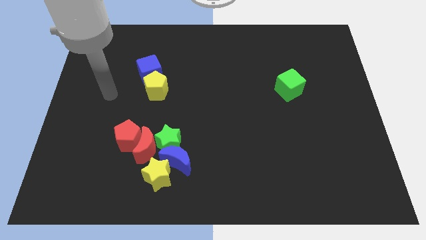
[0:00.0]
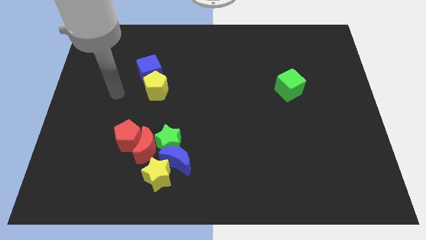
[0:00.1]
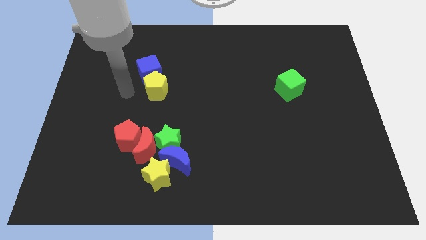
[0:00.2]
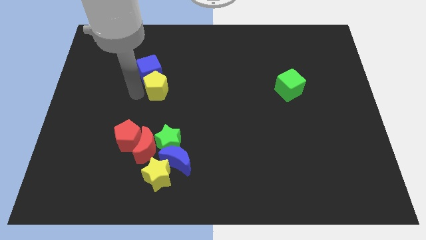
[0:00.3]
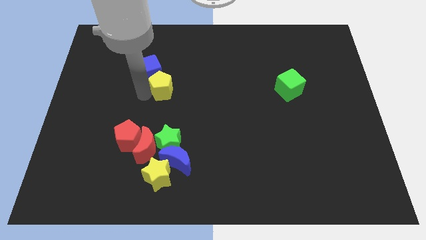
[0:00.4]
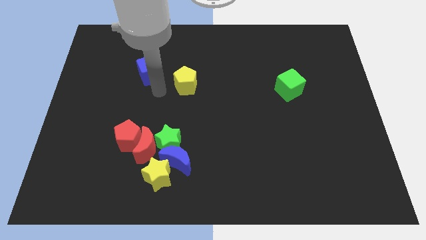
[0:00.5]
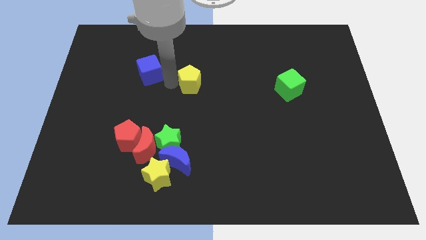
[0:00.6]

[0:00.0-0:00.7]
pull the blue cube apart from the yellow pentagon

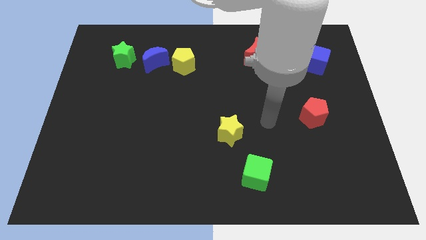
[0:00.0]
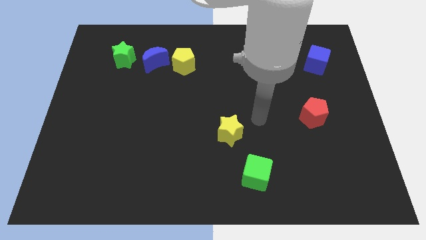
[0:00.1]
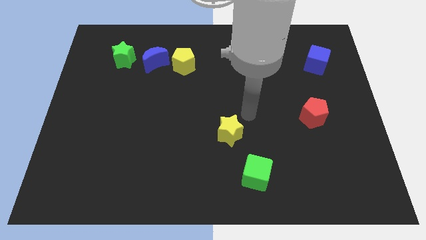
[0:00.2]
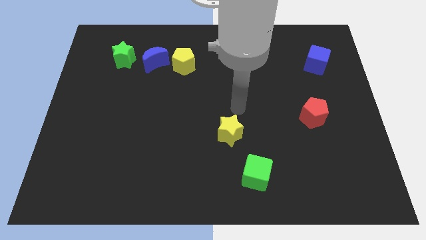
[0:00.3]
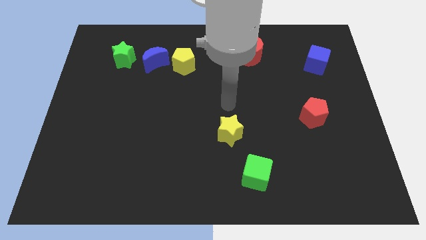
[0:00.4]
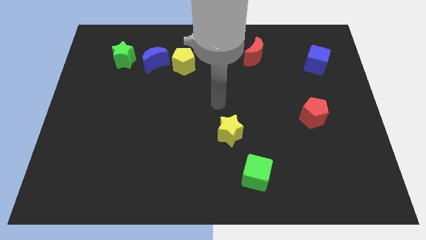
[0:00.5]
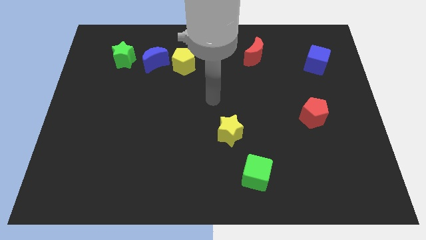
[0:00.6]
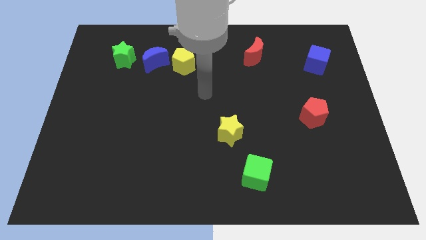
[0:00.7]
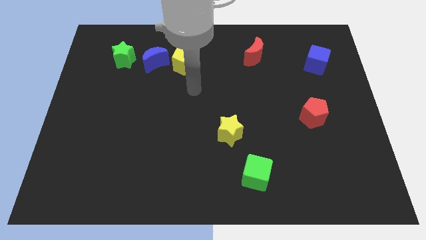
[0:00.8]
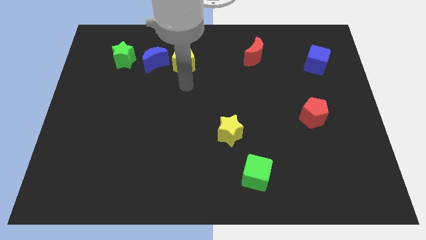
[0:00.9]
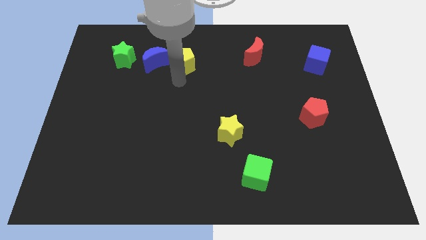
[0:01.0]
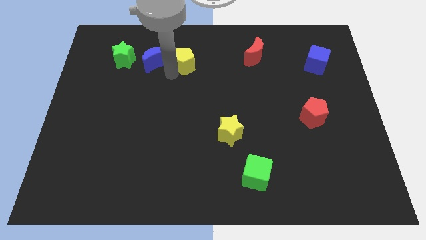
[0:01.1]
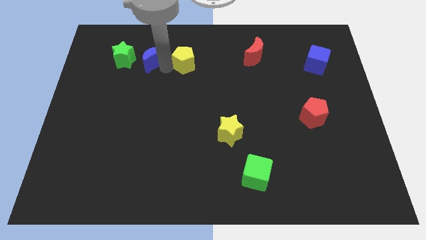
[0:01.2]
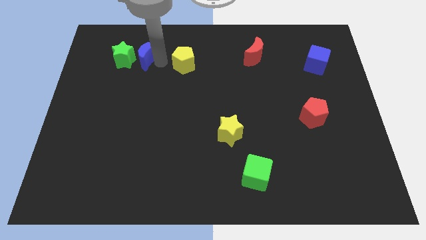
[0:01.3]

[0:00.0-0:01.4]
pull the yellow pentagon apart from the blue moon

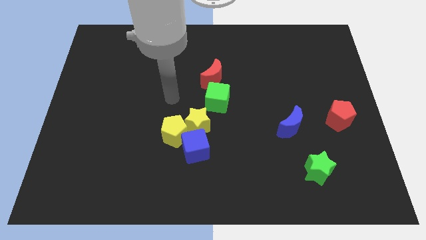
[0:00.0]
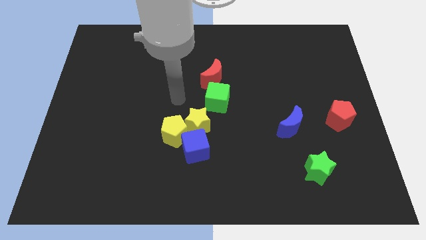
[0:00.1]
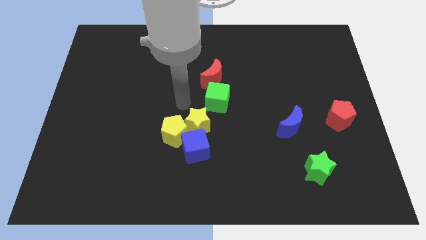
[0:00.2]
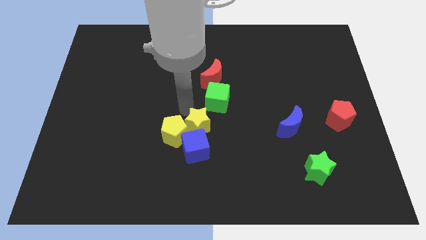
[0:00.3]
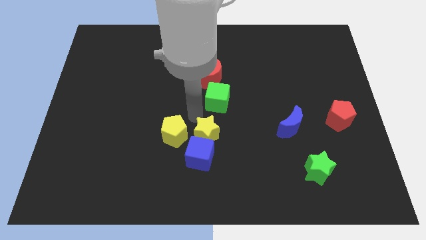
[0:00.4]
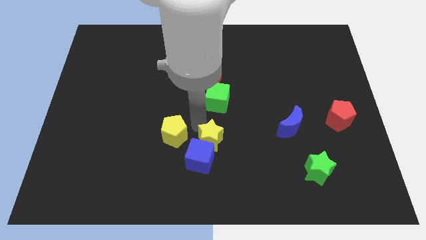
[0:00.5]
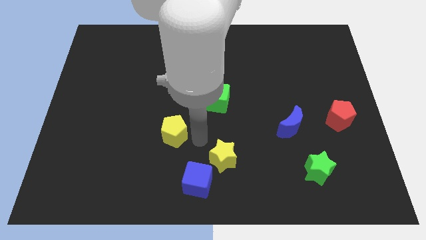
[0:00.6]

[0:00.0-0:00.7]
pull the yellow pentagon apart from the yellow star and blue cube

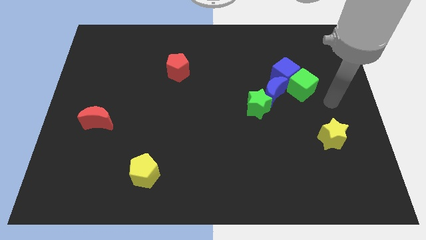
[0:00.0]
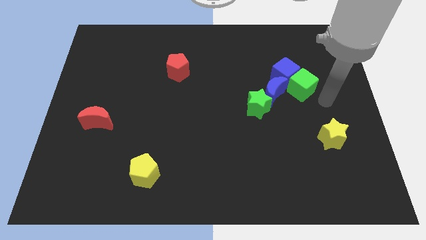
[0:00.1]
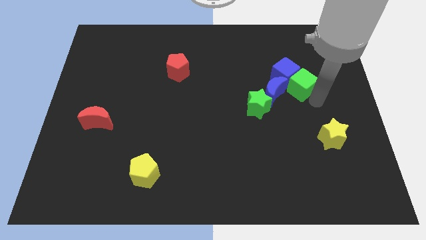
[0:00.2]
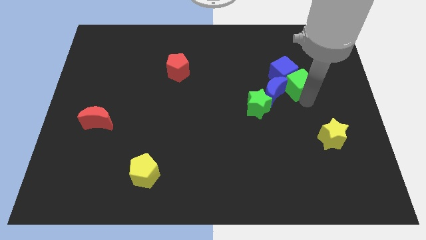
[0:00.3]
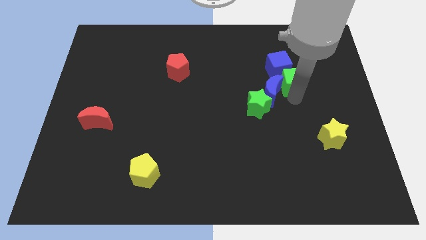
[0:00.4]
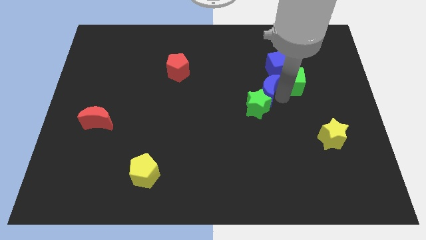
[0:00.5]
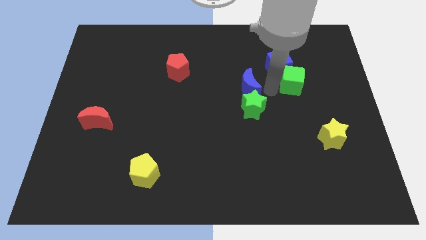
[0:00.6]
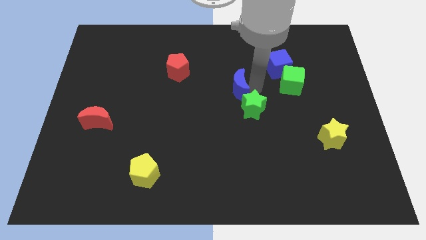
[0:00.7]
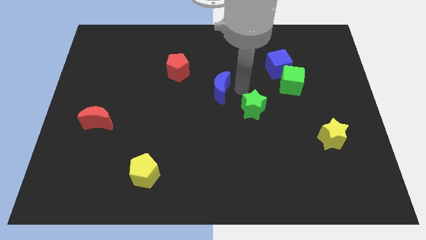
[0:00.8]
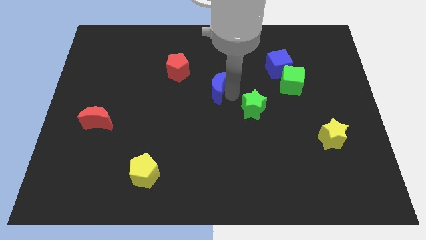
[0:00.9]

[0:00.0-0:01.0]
separate the green star from the blue moon

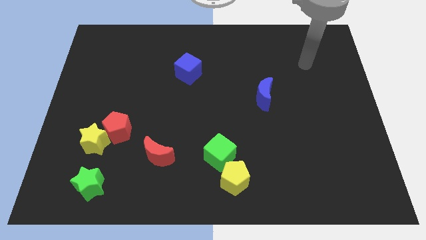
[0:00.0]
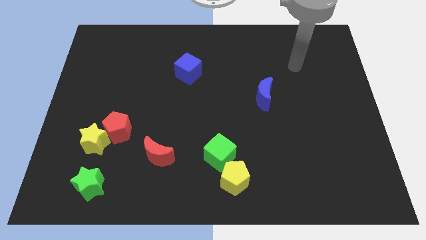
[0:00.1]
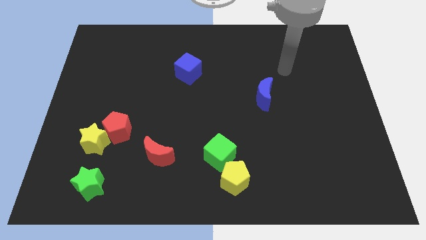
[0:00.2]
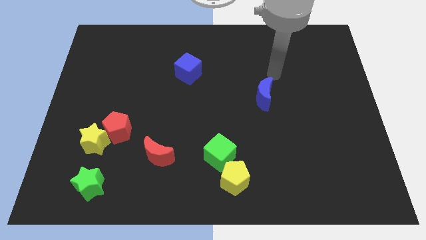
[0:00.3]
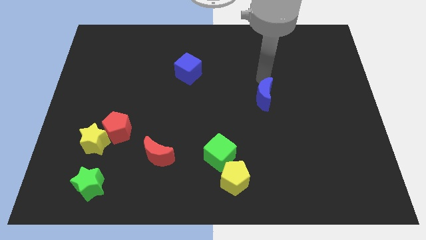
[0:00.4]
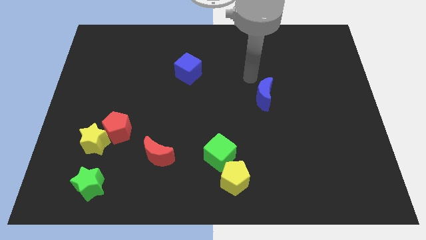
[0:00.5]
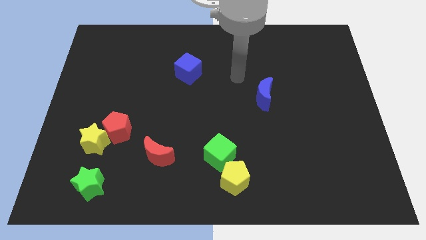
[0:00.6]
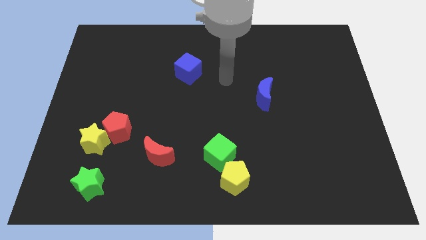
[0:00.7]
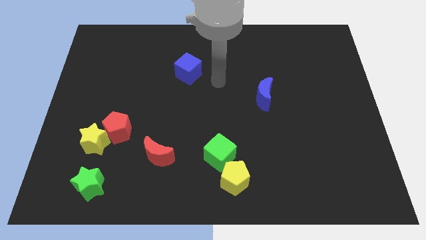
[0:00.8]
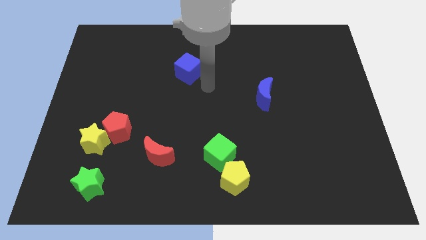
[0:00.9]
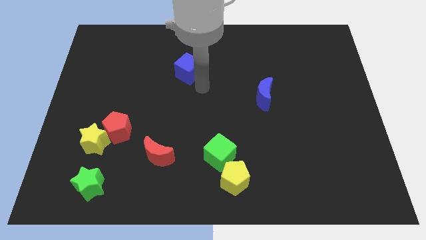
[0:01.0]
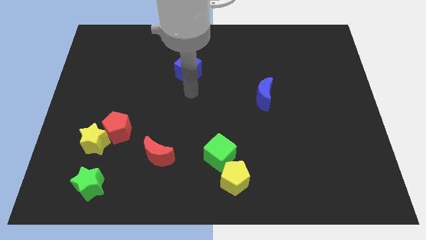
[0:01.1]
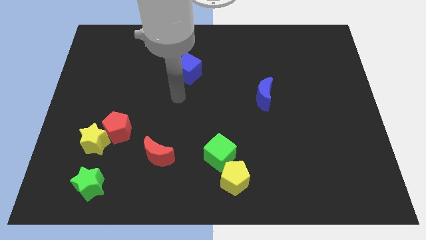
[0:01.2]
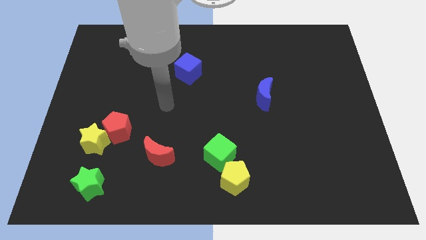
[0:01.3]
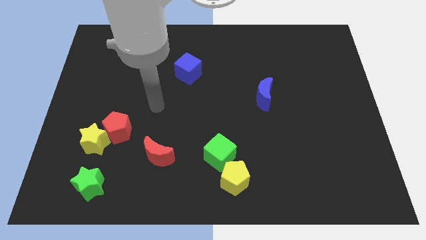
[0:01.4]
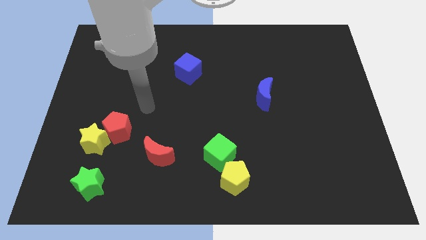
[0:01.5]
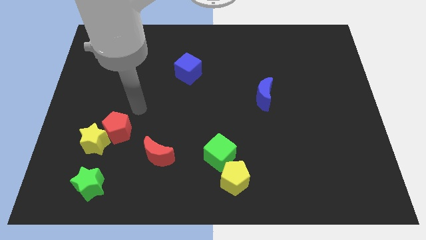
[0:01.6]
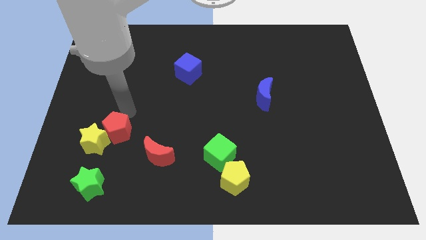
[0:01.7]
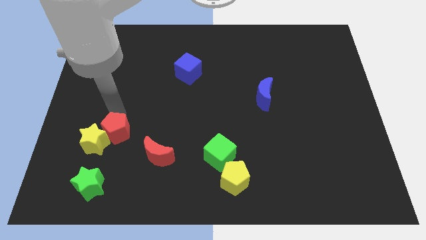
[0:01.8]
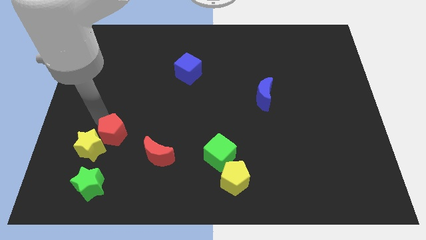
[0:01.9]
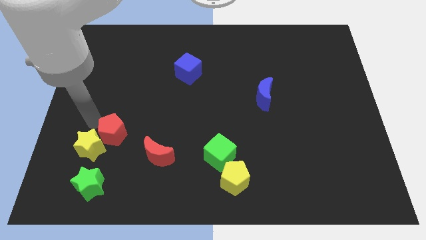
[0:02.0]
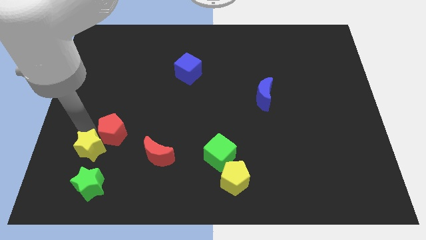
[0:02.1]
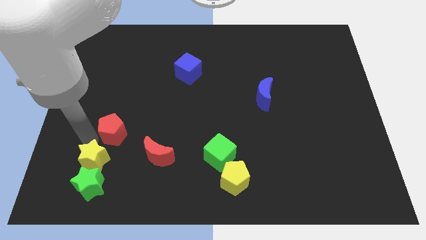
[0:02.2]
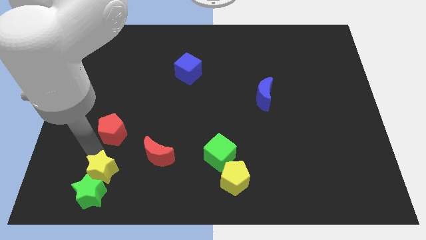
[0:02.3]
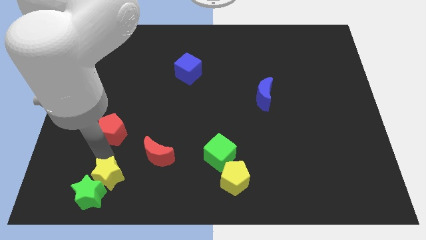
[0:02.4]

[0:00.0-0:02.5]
pull the red pentagon apart from the yellow star

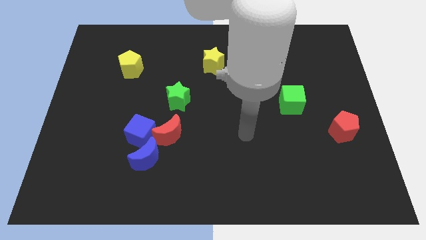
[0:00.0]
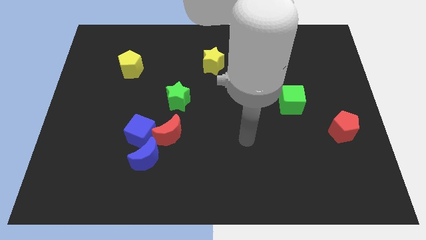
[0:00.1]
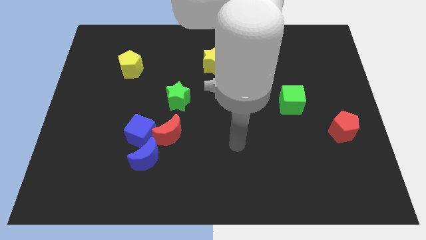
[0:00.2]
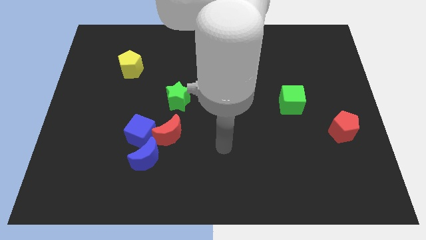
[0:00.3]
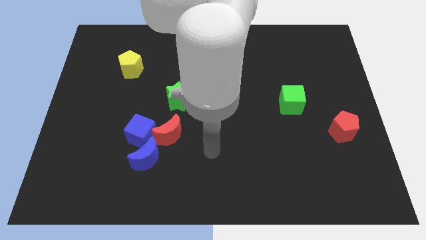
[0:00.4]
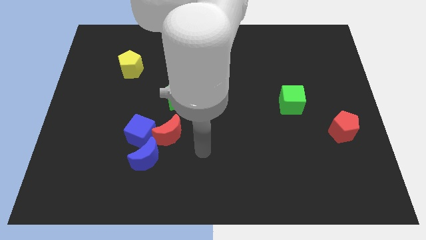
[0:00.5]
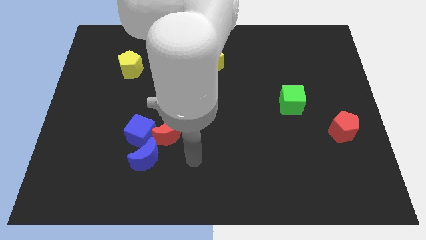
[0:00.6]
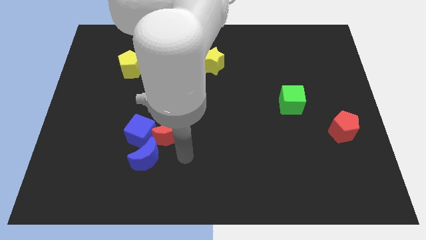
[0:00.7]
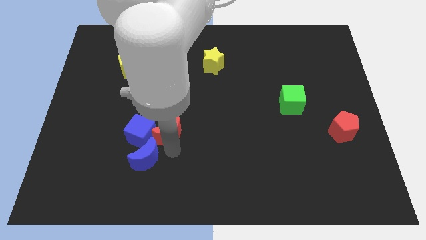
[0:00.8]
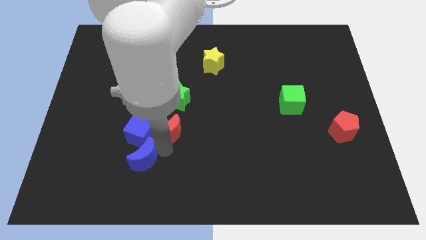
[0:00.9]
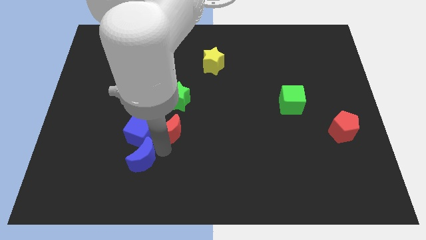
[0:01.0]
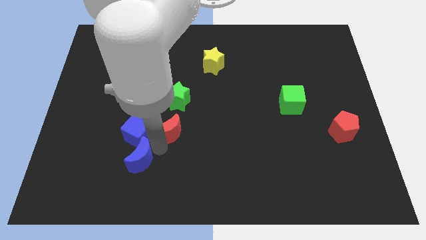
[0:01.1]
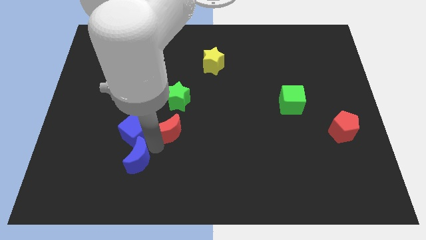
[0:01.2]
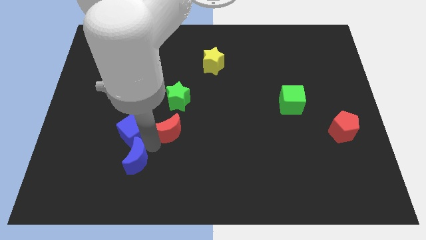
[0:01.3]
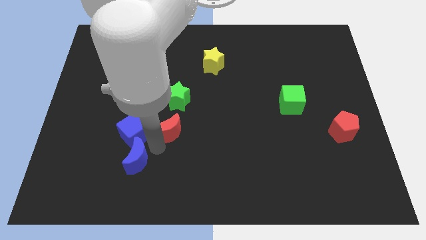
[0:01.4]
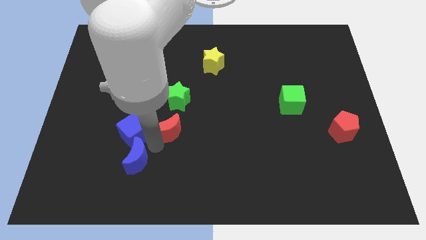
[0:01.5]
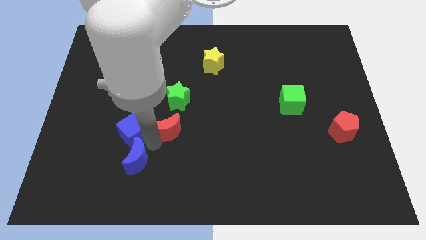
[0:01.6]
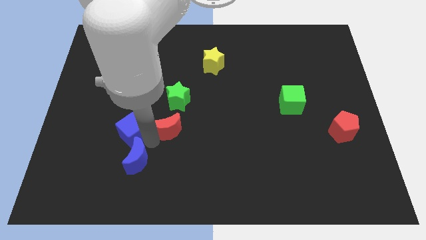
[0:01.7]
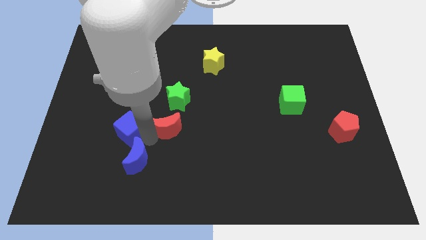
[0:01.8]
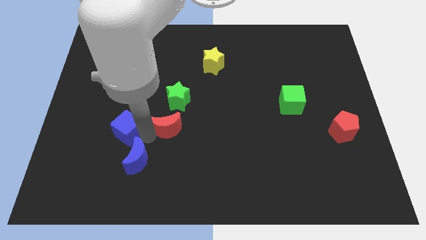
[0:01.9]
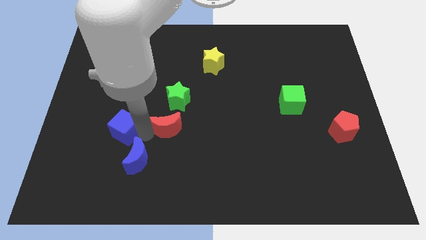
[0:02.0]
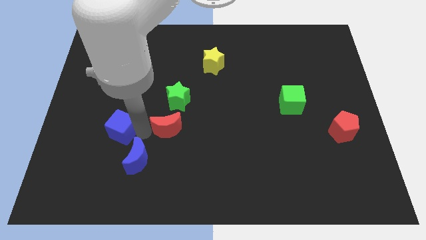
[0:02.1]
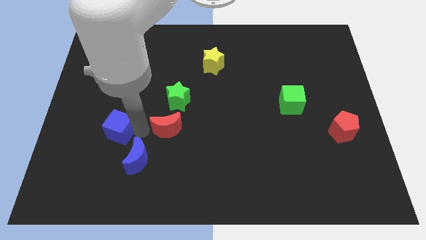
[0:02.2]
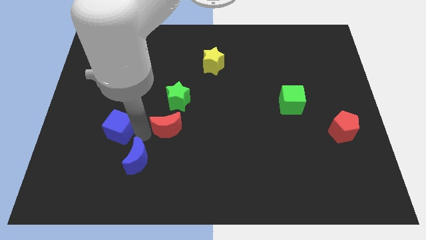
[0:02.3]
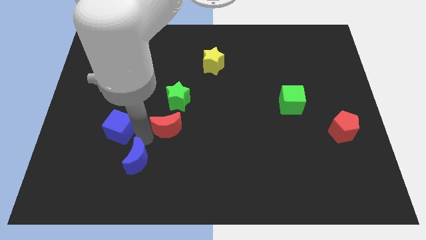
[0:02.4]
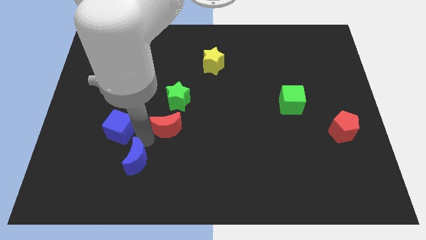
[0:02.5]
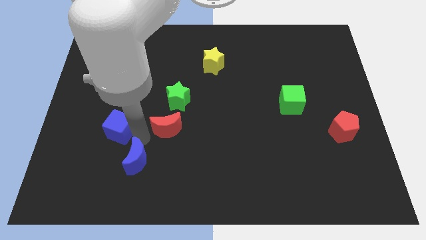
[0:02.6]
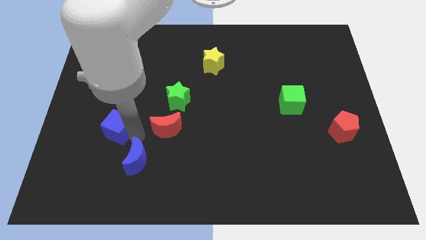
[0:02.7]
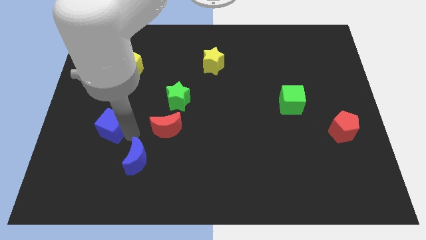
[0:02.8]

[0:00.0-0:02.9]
separate the blue cube from the red moon and blue moon
